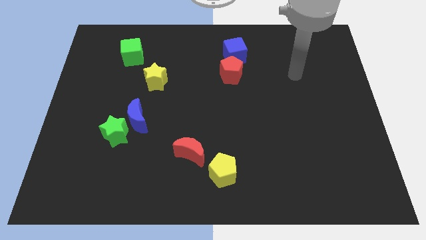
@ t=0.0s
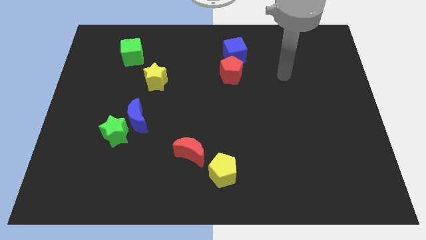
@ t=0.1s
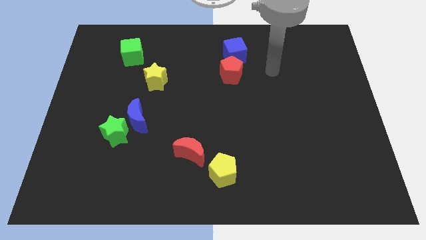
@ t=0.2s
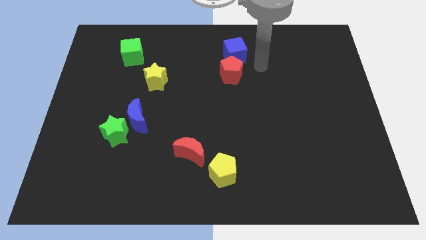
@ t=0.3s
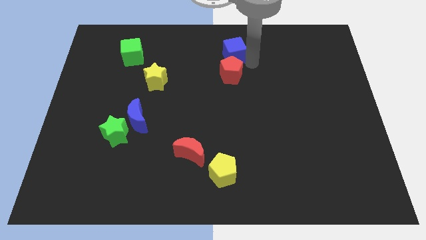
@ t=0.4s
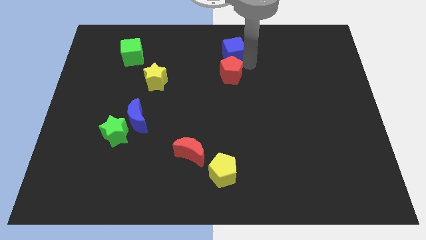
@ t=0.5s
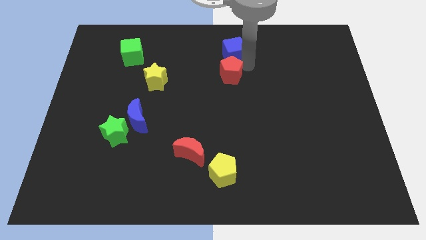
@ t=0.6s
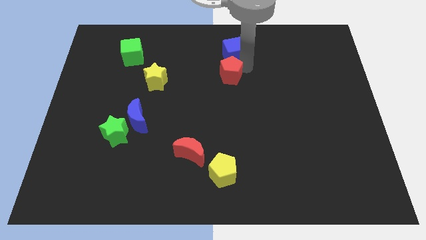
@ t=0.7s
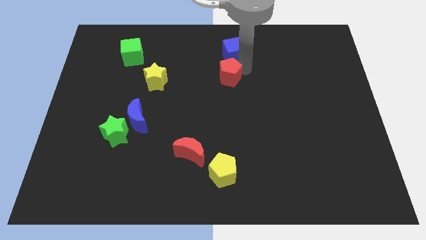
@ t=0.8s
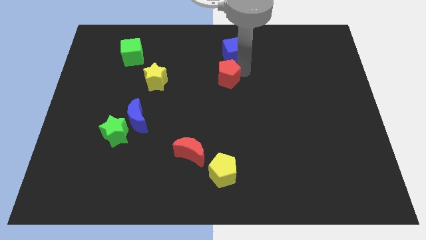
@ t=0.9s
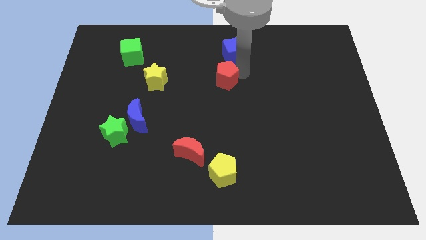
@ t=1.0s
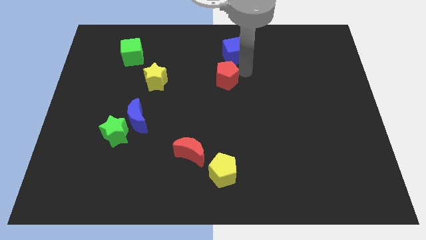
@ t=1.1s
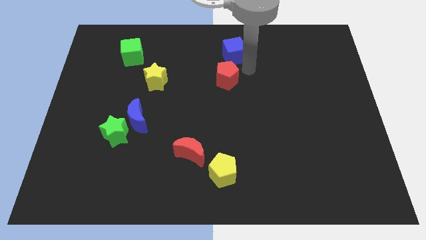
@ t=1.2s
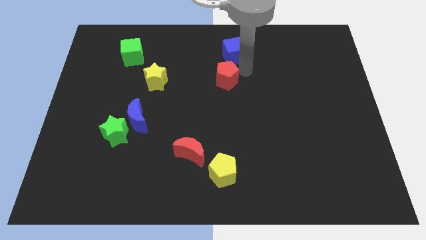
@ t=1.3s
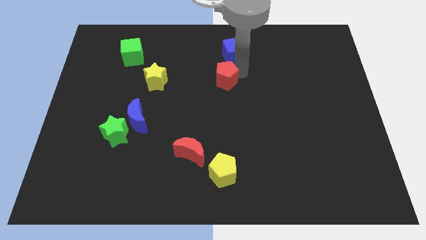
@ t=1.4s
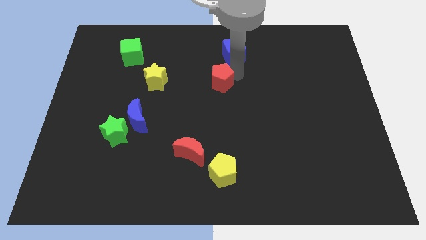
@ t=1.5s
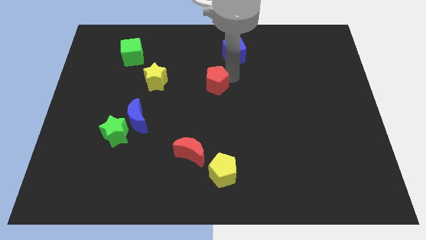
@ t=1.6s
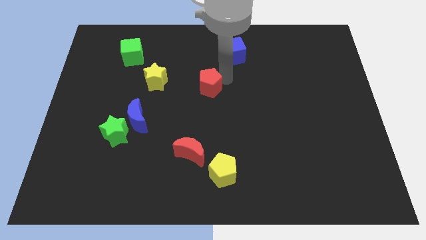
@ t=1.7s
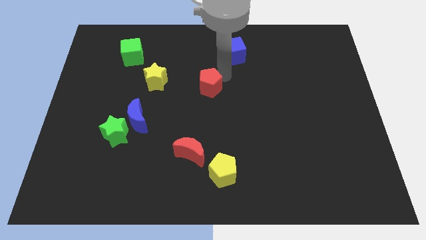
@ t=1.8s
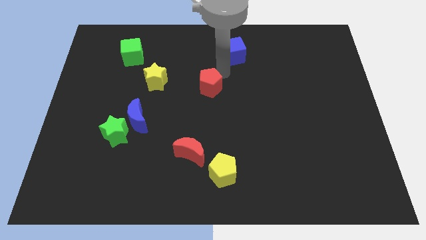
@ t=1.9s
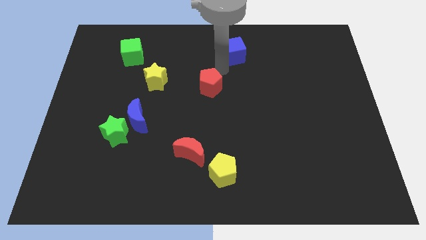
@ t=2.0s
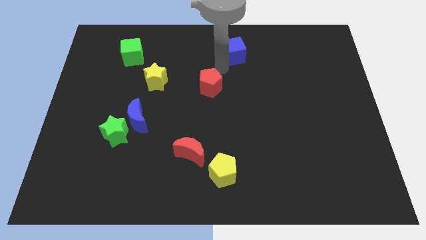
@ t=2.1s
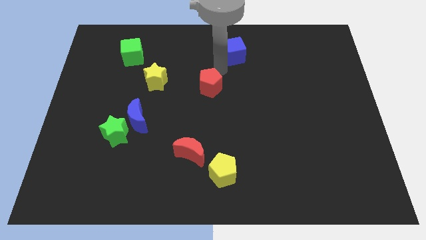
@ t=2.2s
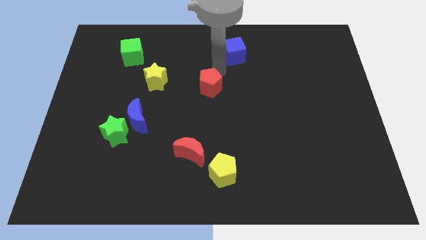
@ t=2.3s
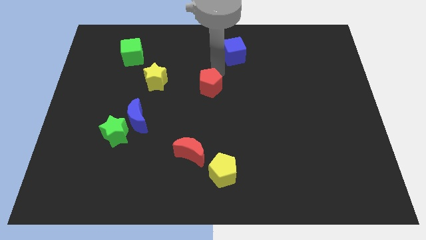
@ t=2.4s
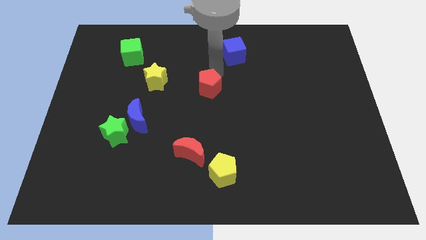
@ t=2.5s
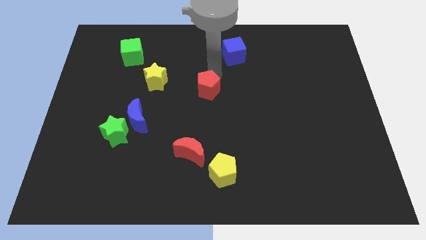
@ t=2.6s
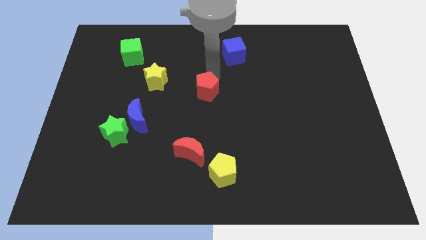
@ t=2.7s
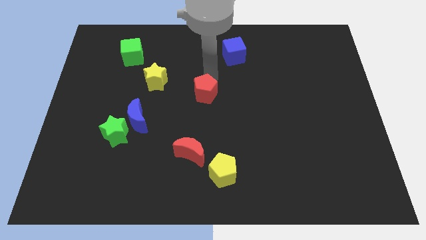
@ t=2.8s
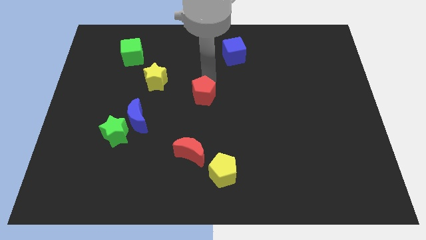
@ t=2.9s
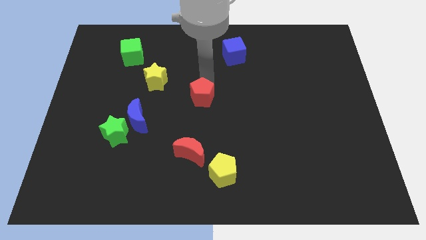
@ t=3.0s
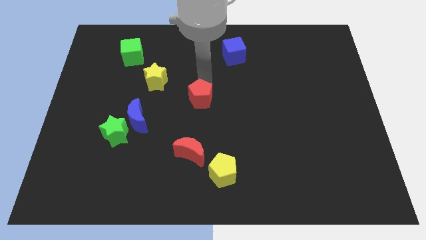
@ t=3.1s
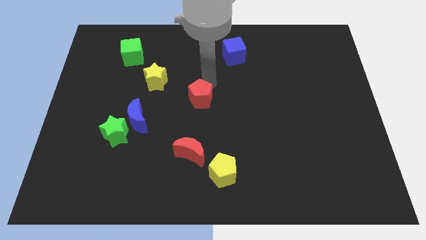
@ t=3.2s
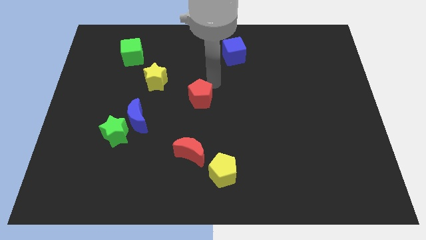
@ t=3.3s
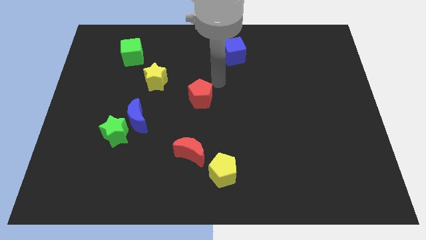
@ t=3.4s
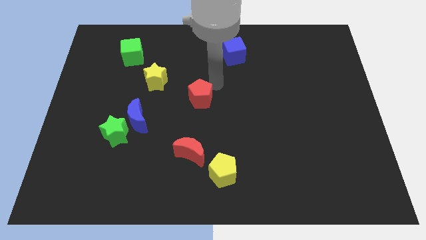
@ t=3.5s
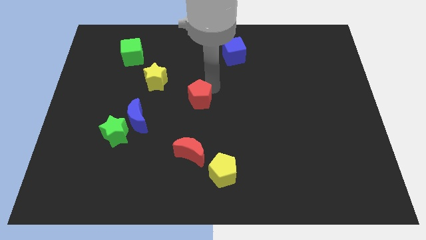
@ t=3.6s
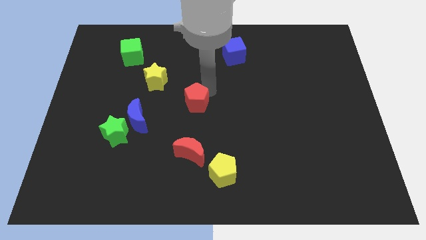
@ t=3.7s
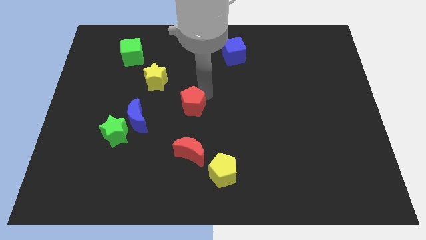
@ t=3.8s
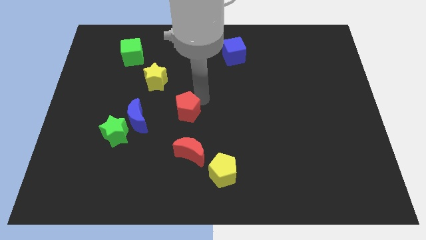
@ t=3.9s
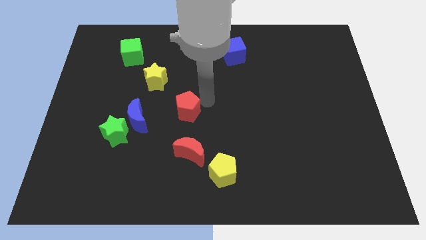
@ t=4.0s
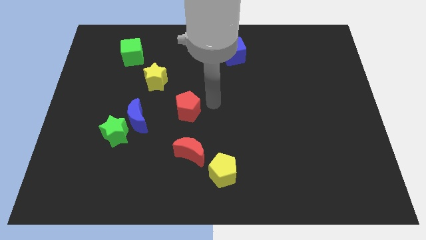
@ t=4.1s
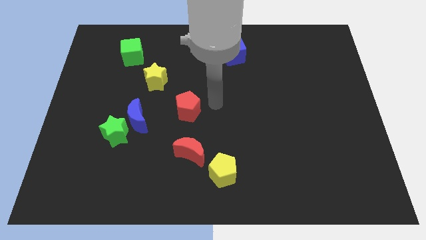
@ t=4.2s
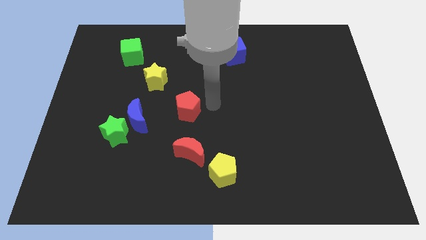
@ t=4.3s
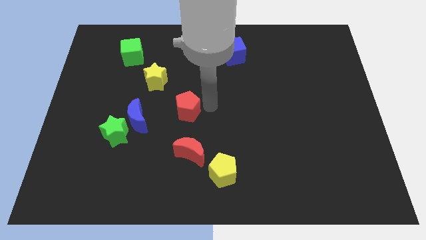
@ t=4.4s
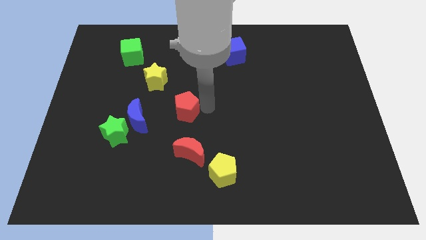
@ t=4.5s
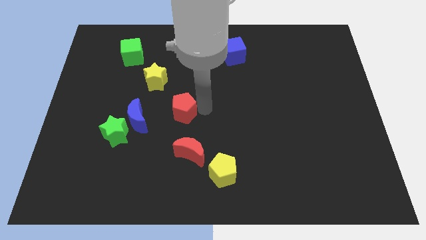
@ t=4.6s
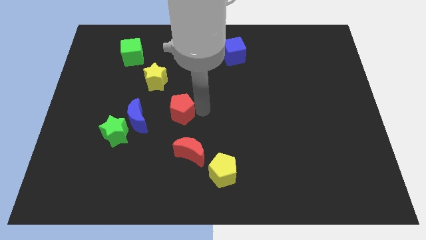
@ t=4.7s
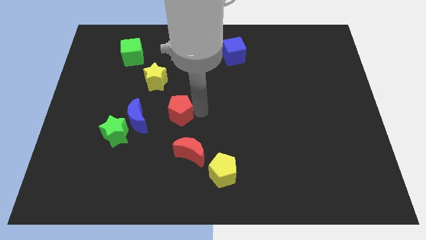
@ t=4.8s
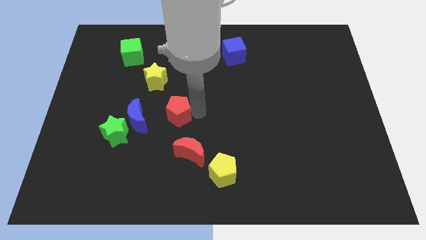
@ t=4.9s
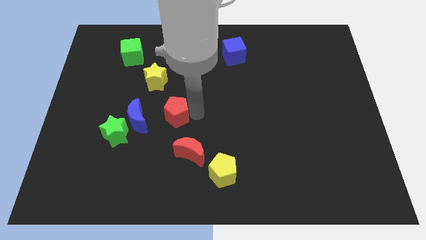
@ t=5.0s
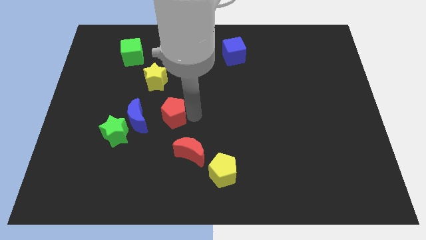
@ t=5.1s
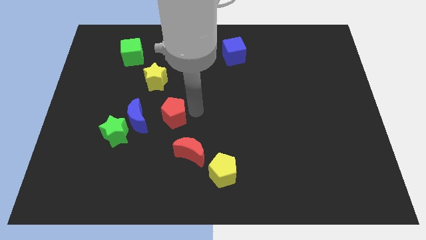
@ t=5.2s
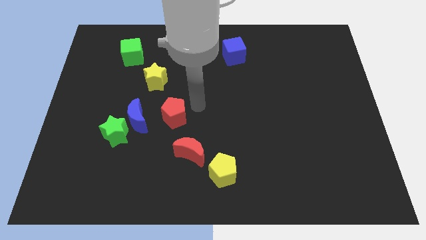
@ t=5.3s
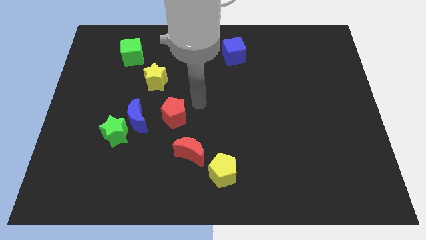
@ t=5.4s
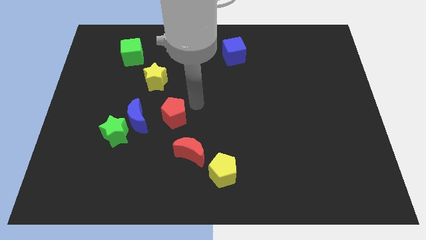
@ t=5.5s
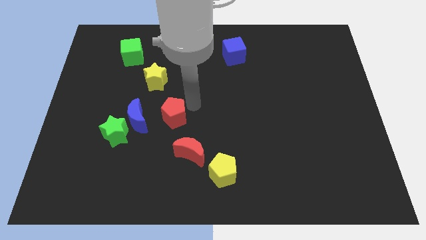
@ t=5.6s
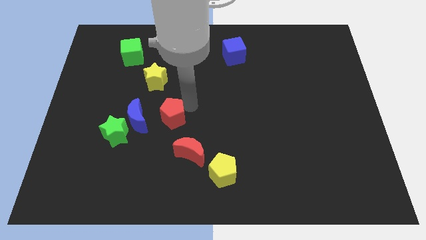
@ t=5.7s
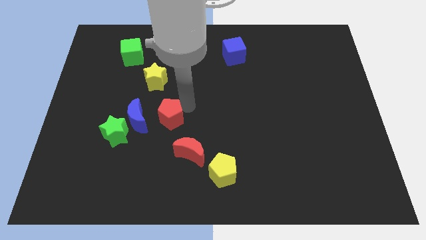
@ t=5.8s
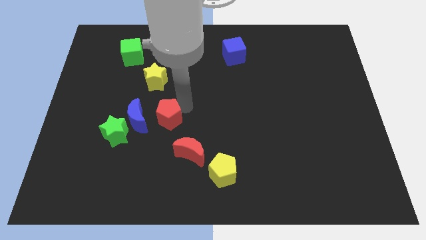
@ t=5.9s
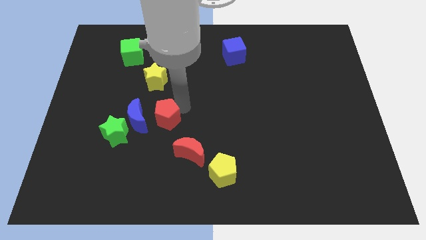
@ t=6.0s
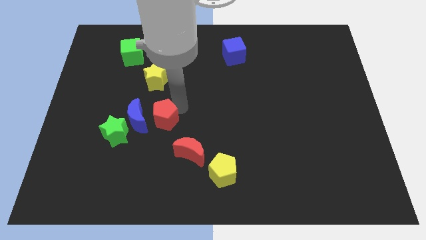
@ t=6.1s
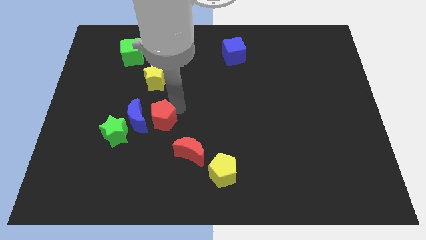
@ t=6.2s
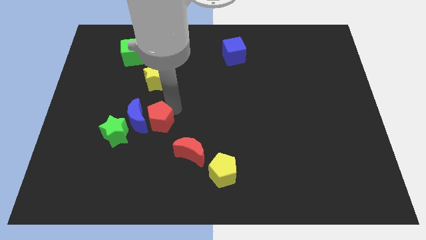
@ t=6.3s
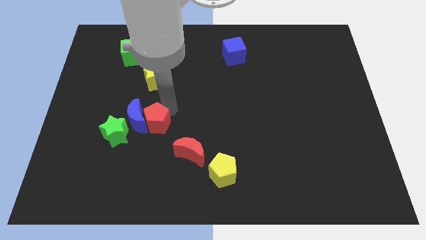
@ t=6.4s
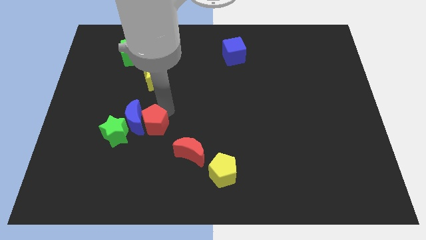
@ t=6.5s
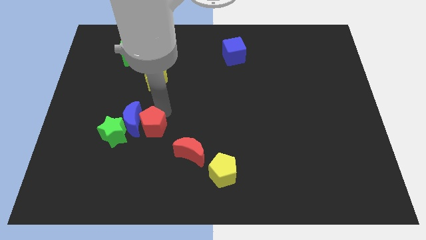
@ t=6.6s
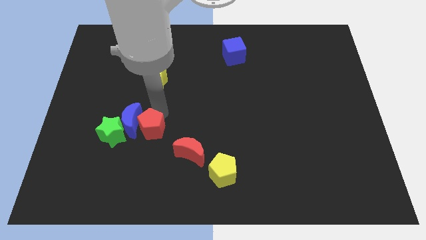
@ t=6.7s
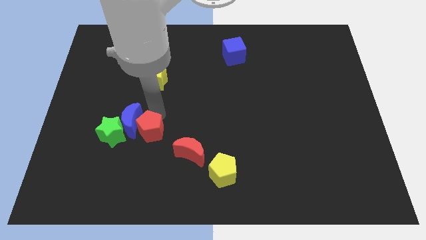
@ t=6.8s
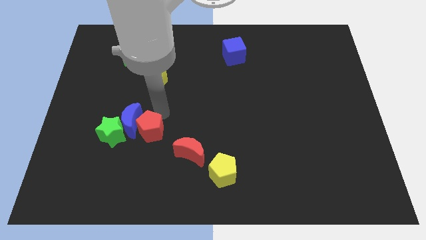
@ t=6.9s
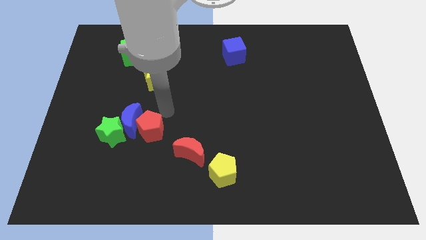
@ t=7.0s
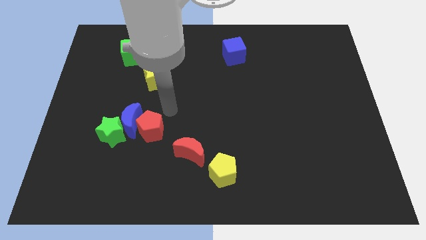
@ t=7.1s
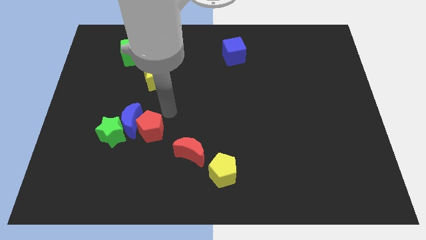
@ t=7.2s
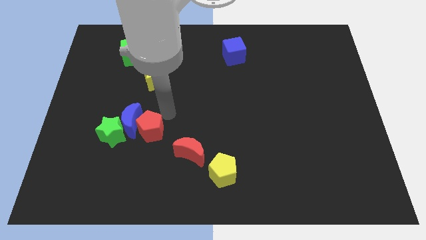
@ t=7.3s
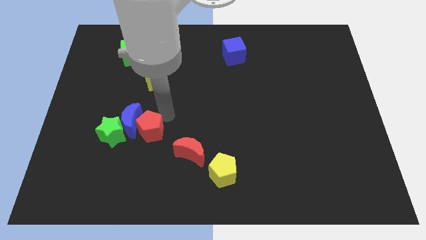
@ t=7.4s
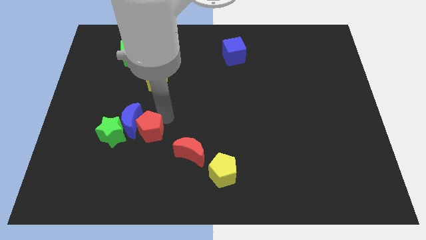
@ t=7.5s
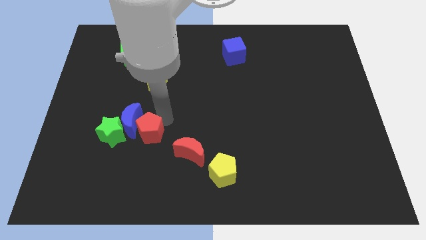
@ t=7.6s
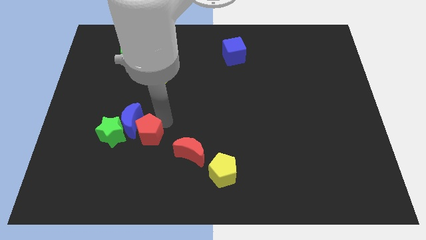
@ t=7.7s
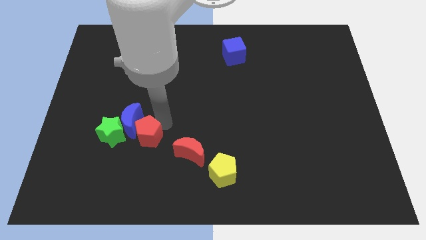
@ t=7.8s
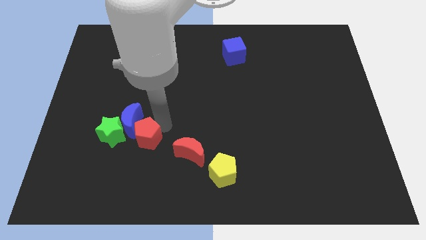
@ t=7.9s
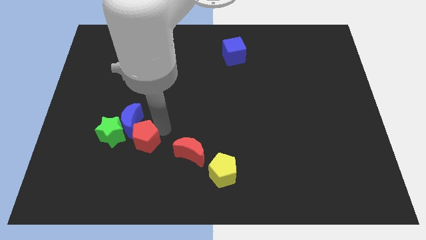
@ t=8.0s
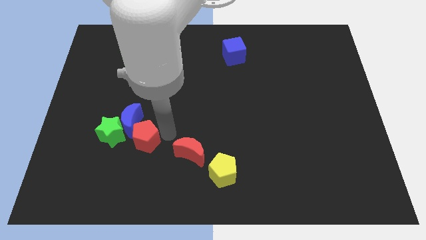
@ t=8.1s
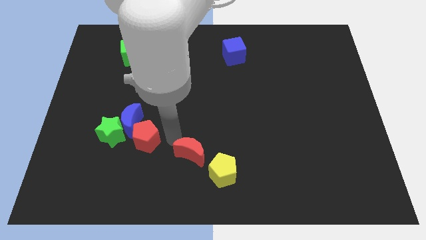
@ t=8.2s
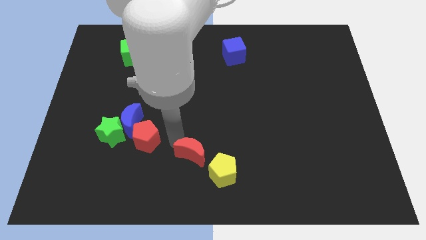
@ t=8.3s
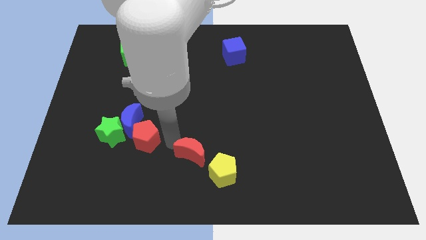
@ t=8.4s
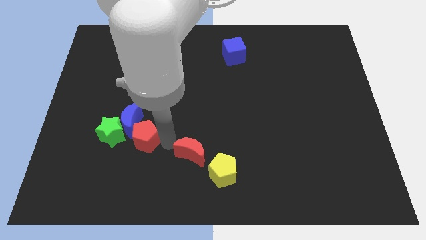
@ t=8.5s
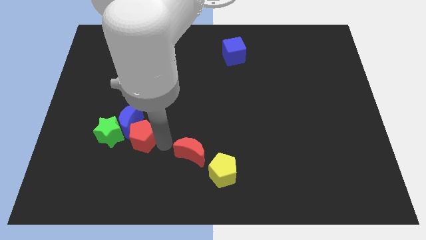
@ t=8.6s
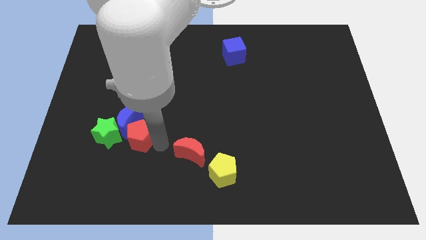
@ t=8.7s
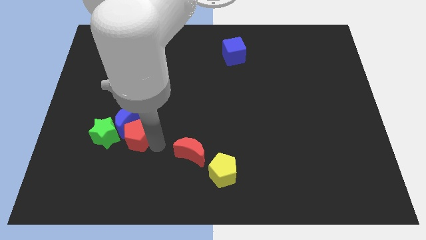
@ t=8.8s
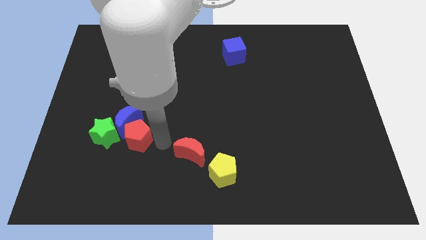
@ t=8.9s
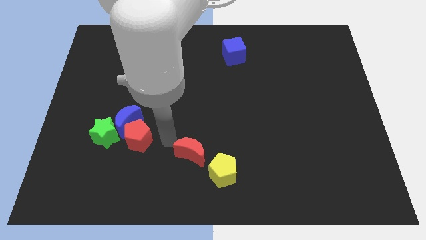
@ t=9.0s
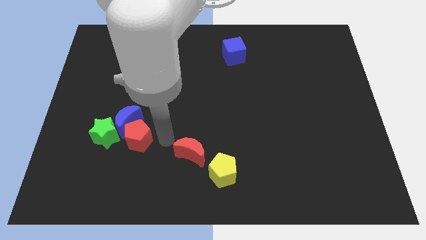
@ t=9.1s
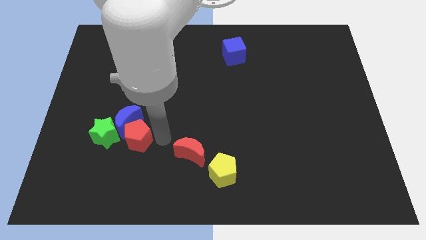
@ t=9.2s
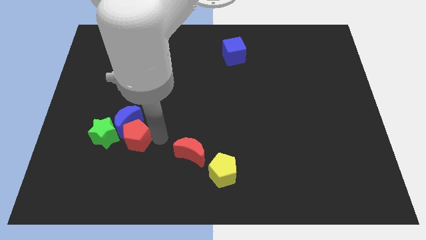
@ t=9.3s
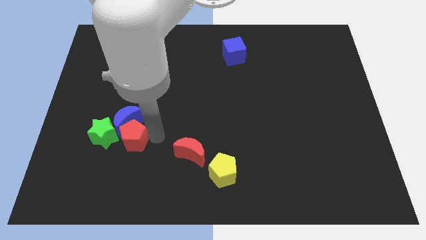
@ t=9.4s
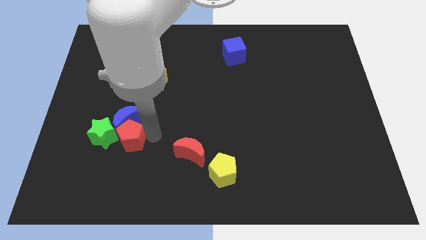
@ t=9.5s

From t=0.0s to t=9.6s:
push the red pentagon to the green star
